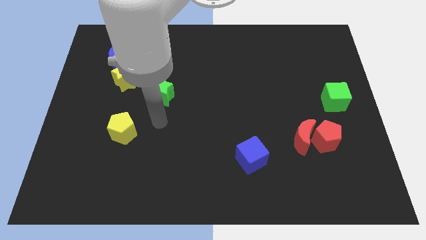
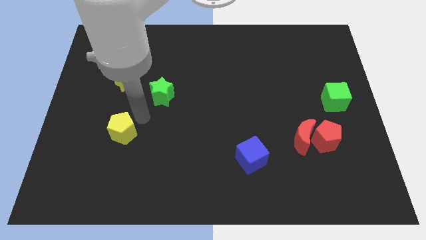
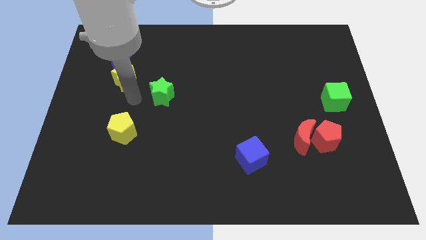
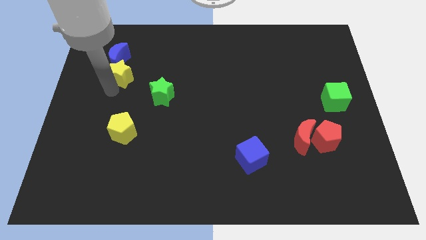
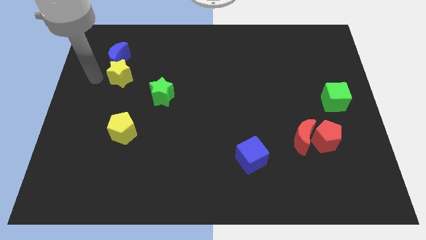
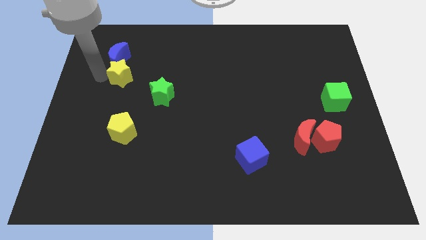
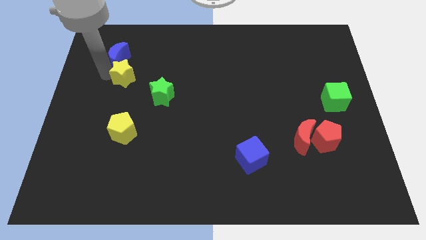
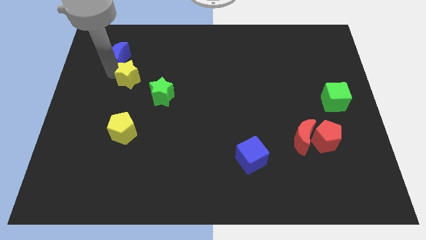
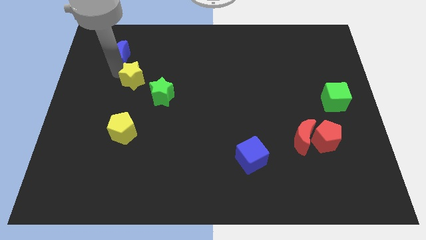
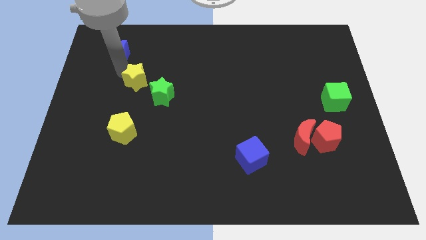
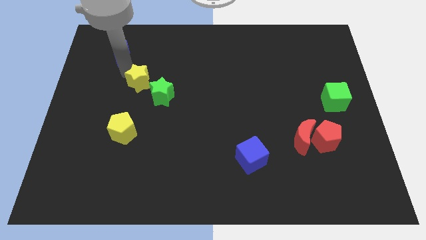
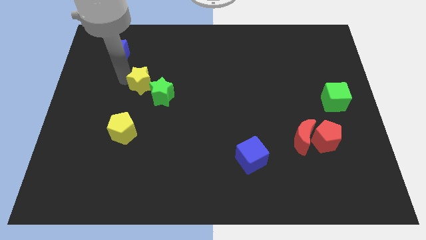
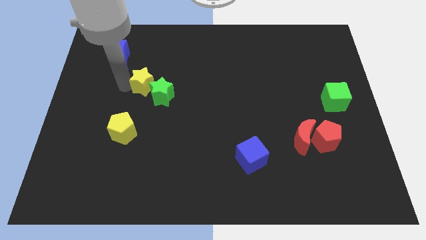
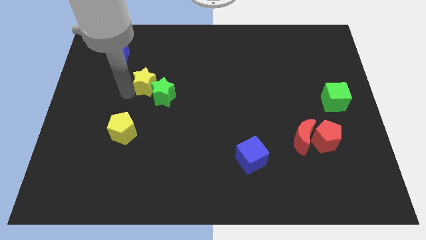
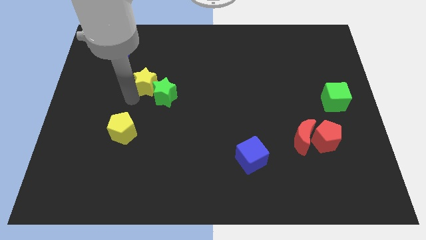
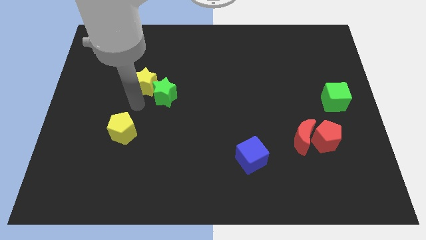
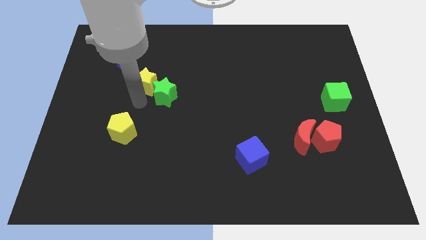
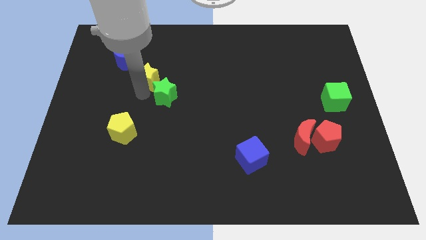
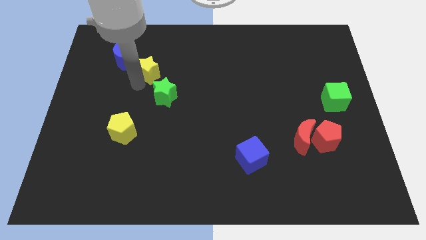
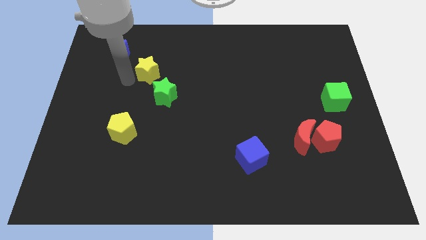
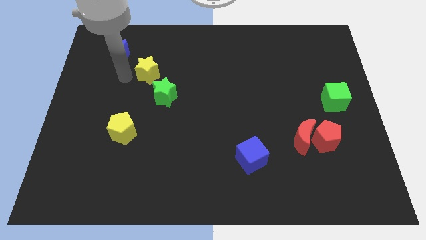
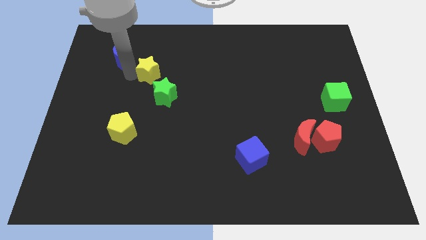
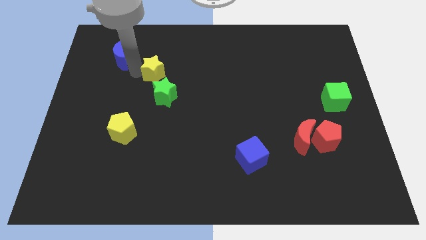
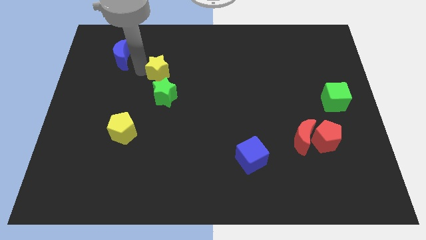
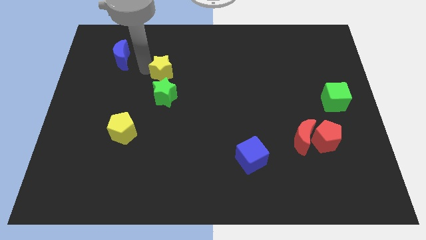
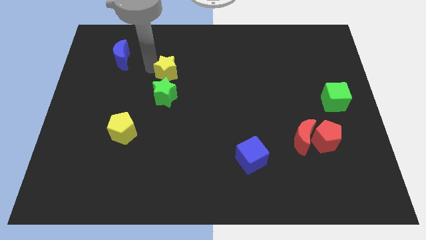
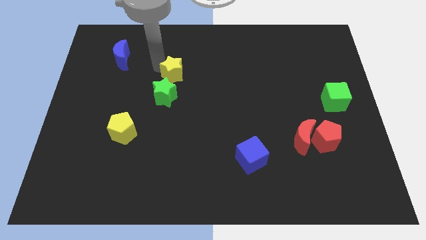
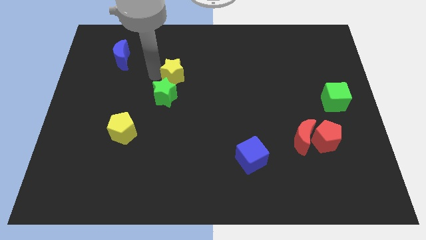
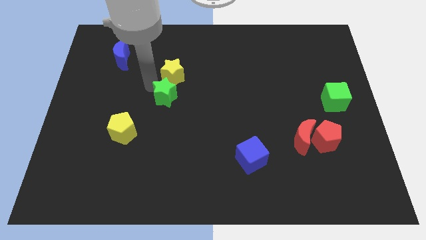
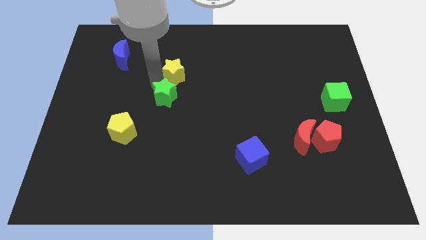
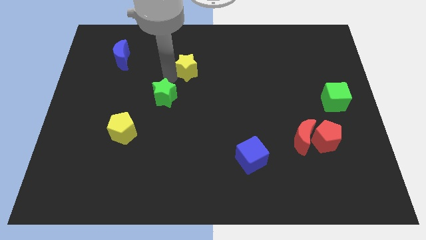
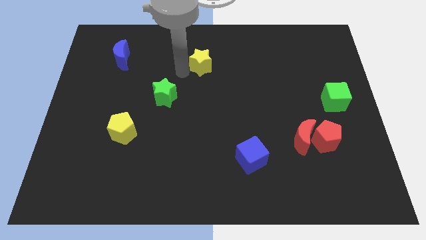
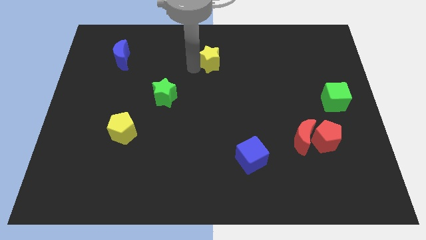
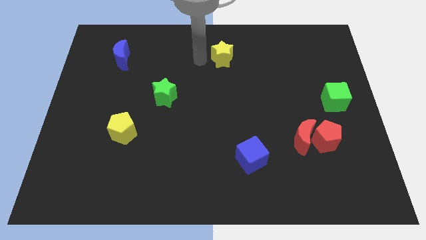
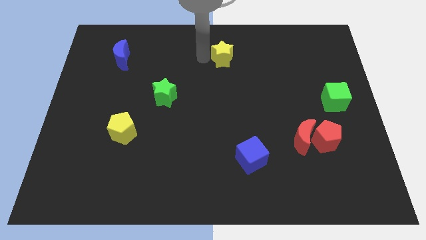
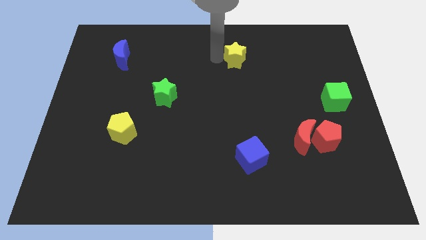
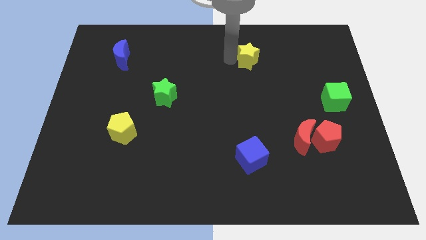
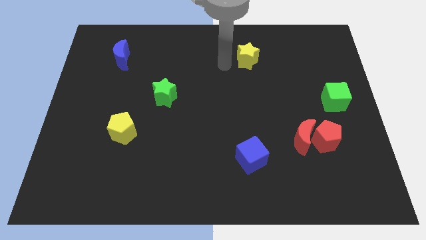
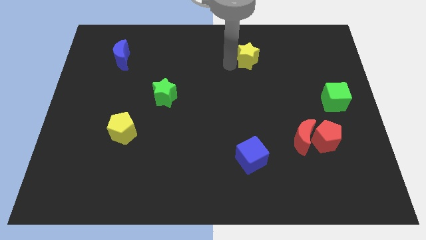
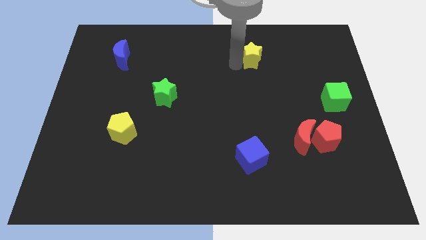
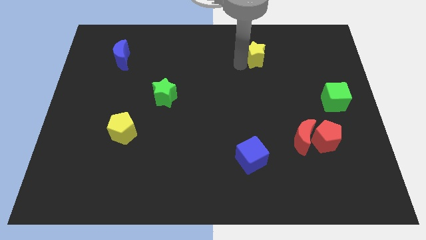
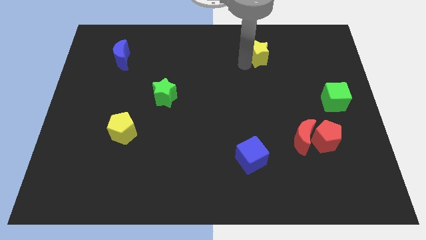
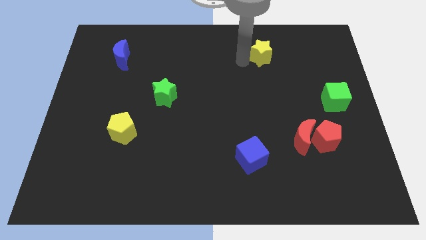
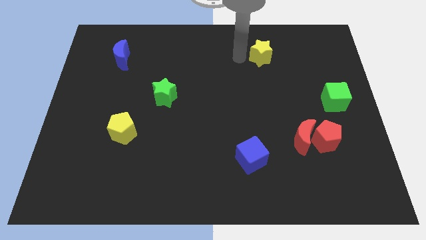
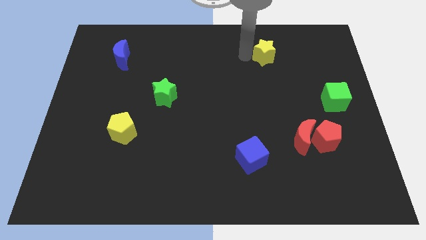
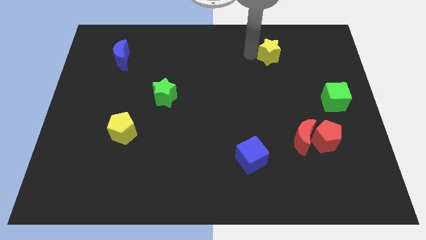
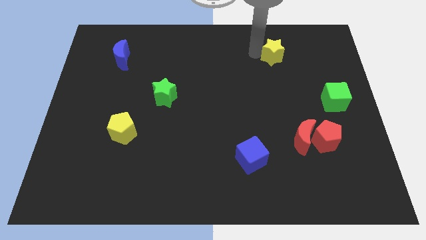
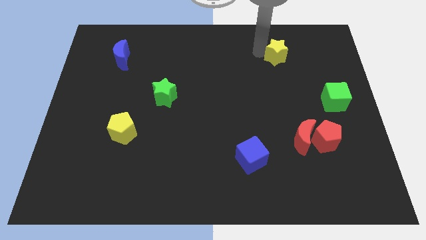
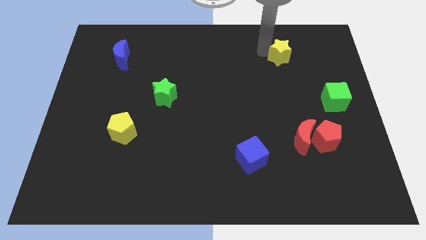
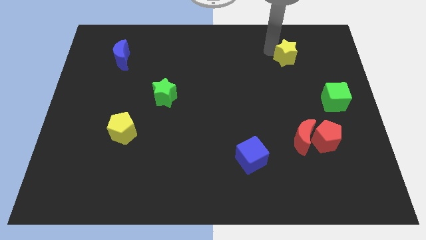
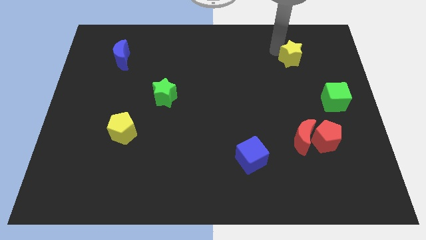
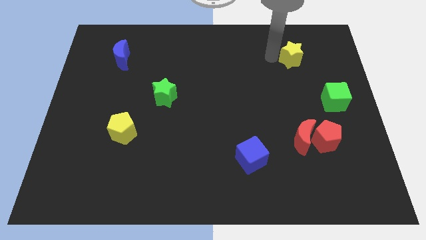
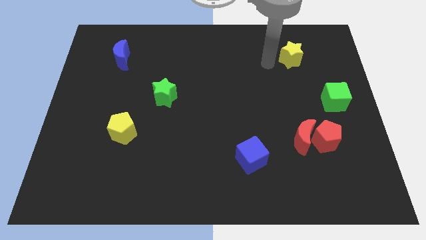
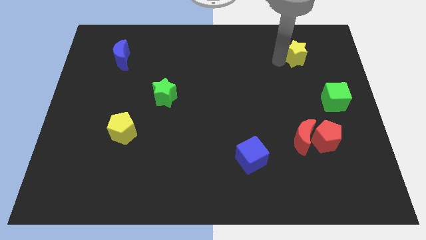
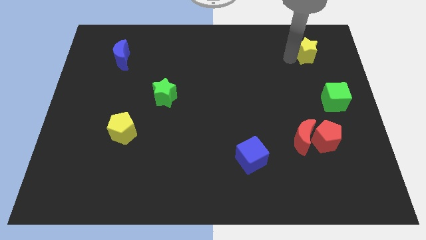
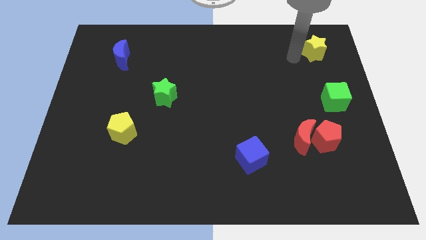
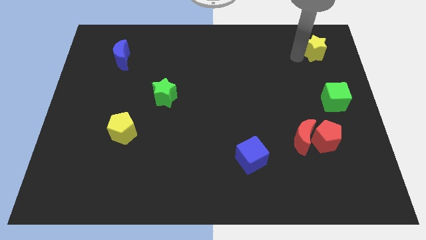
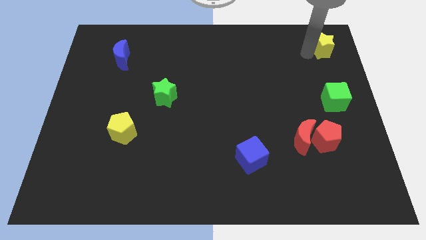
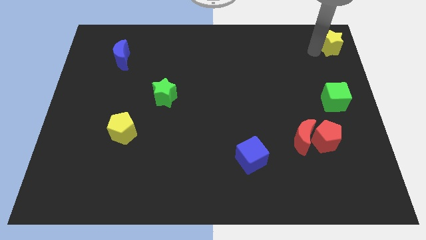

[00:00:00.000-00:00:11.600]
push the yellow star to the top right of the board

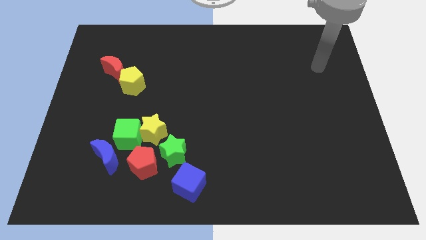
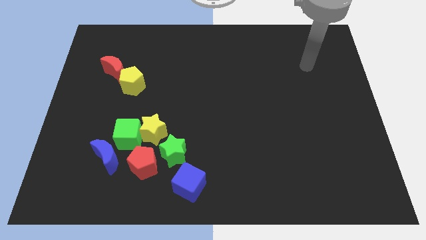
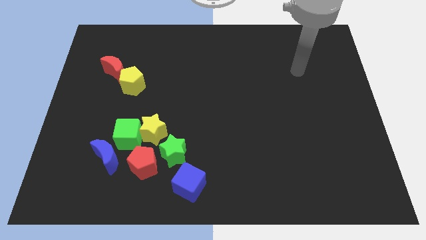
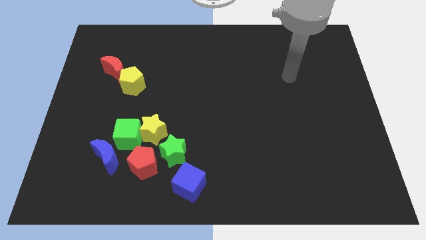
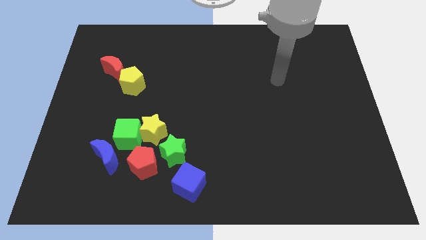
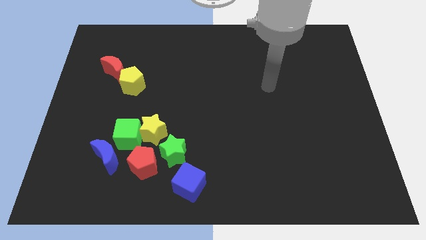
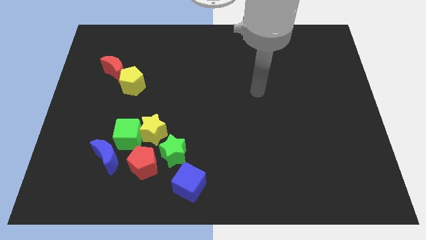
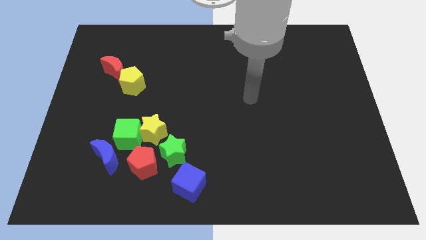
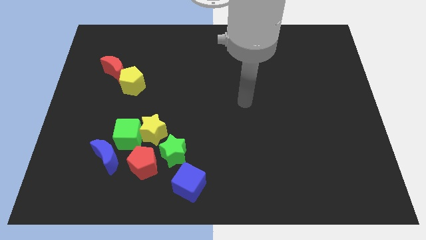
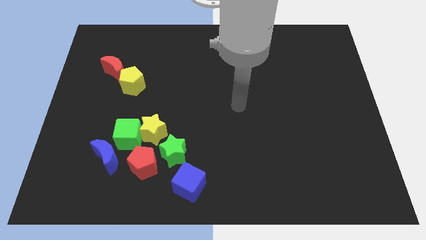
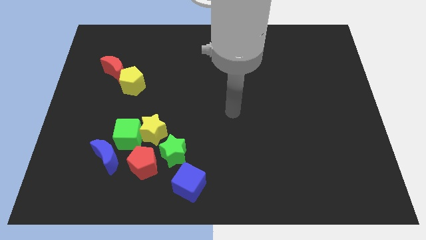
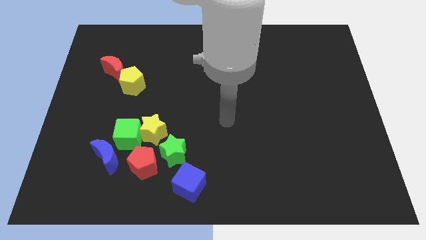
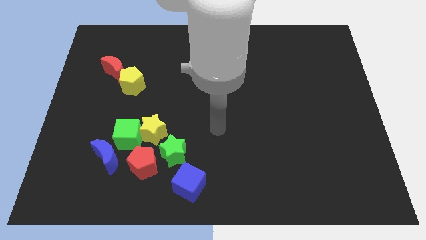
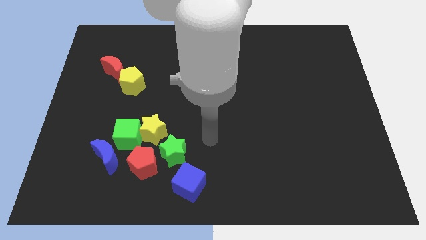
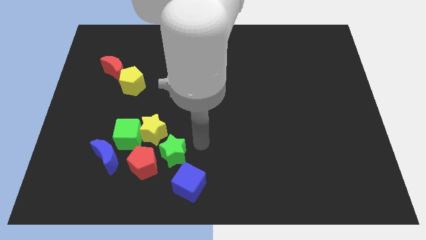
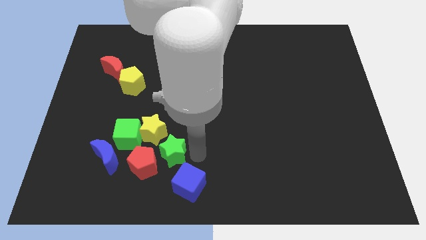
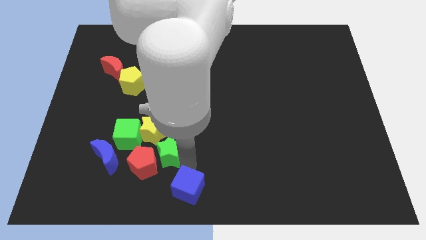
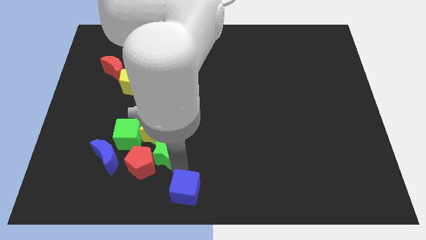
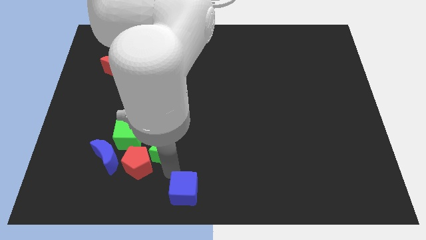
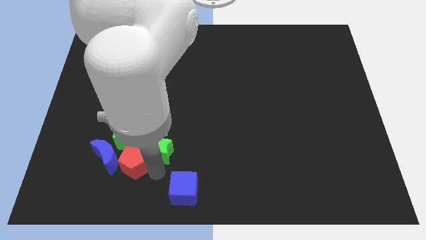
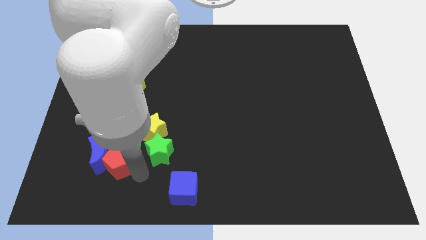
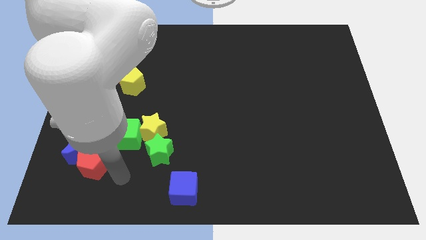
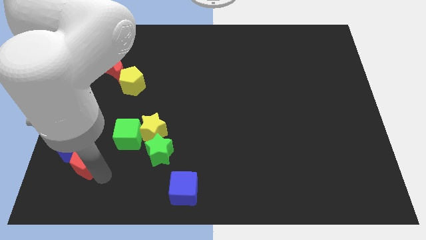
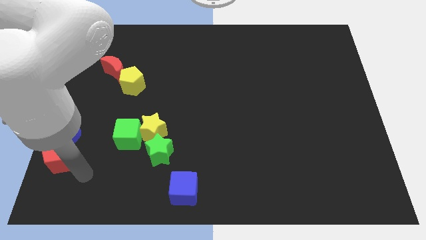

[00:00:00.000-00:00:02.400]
push the blue moon to the left side of the board
